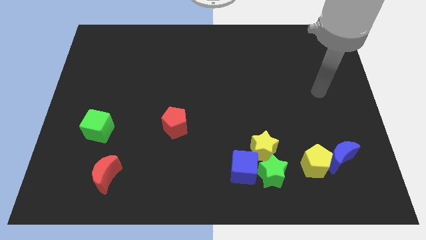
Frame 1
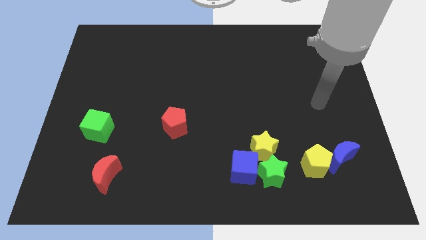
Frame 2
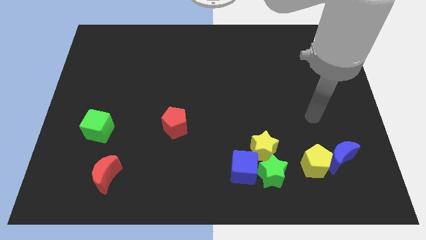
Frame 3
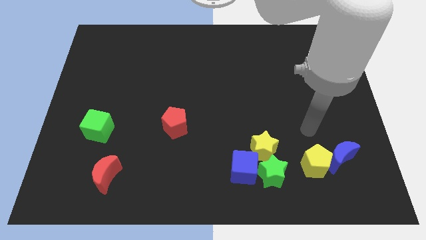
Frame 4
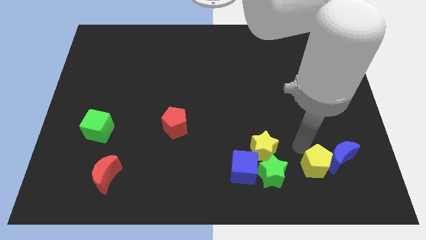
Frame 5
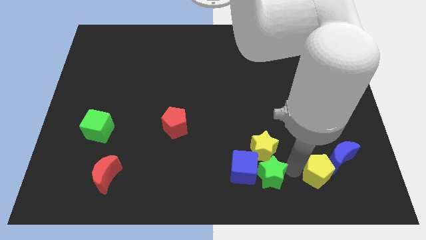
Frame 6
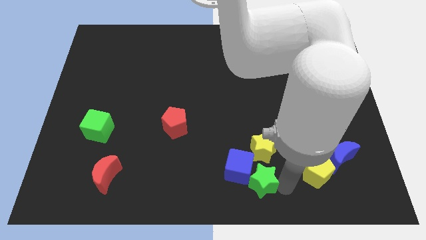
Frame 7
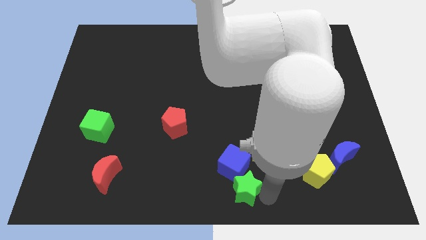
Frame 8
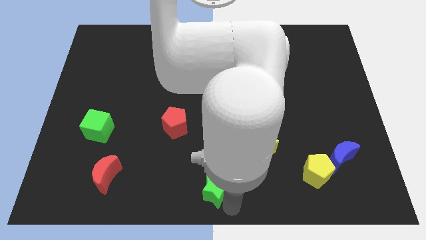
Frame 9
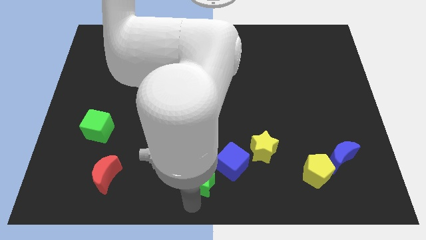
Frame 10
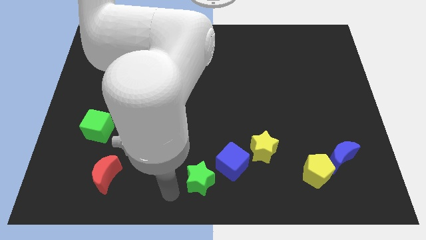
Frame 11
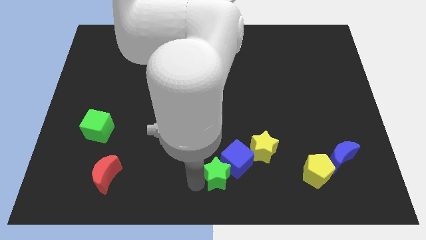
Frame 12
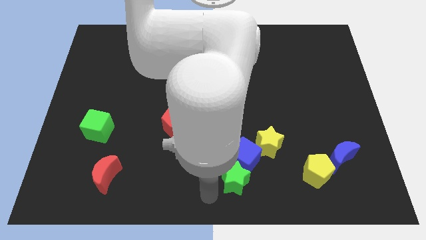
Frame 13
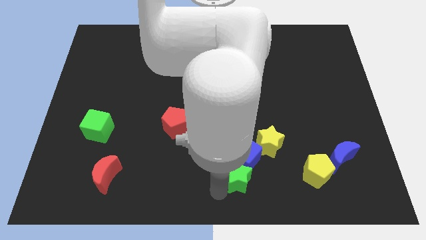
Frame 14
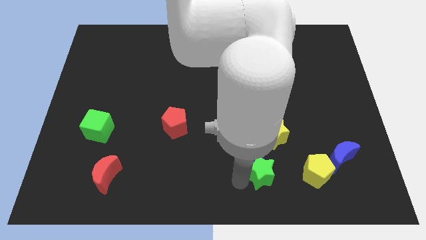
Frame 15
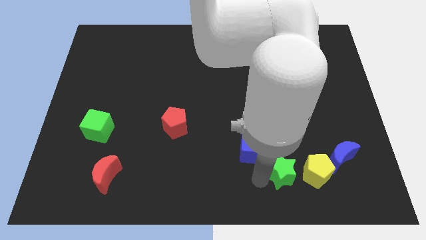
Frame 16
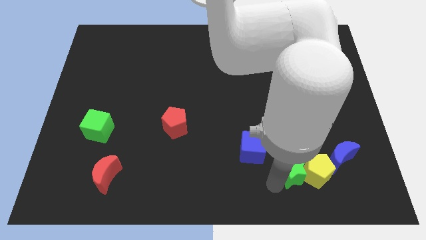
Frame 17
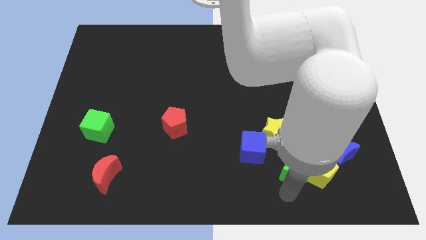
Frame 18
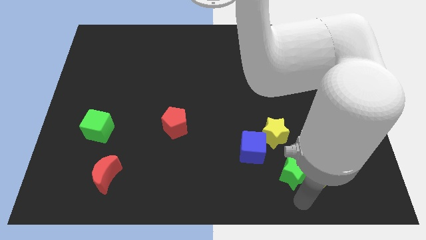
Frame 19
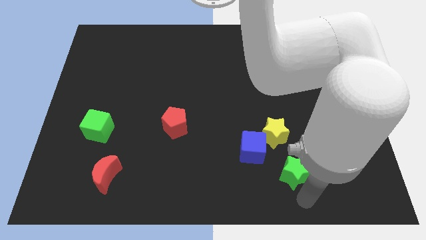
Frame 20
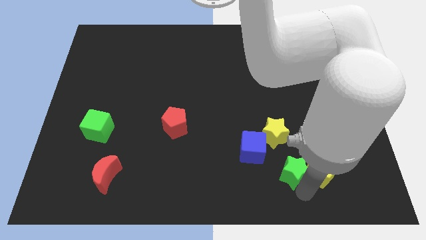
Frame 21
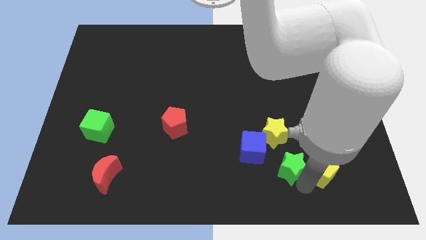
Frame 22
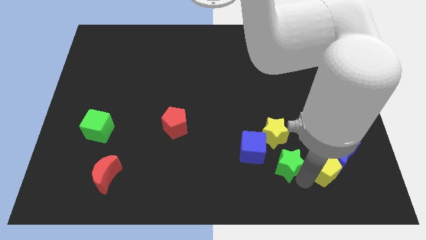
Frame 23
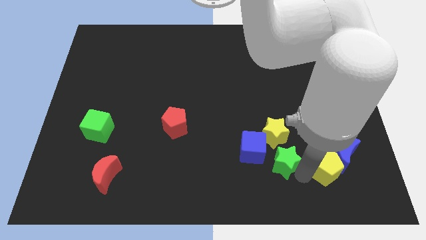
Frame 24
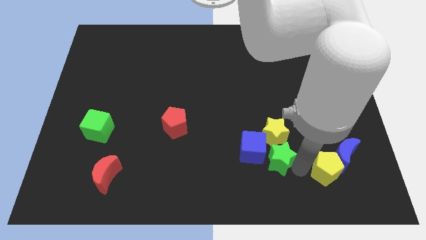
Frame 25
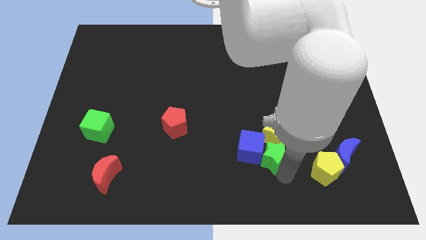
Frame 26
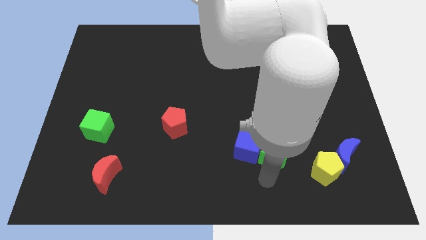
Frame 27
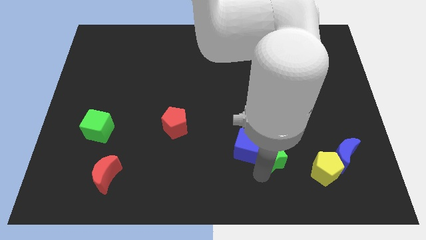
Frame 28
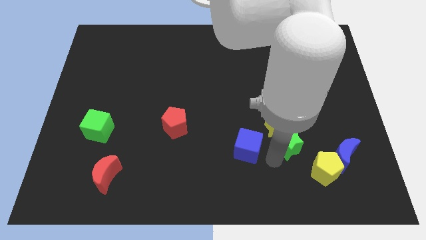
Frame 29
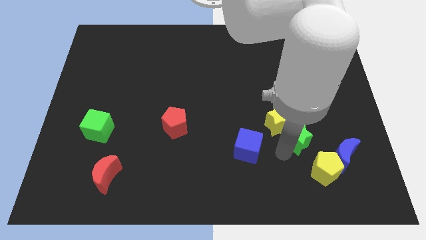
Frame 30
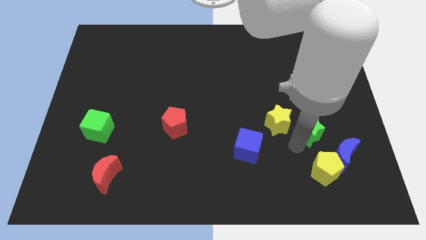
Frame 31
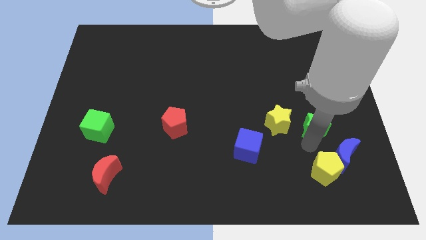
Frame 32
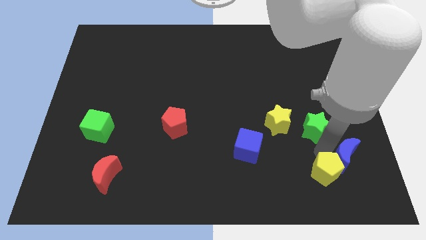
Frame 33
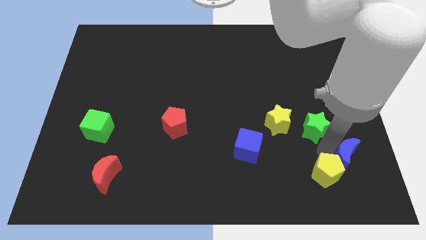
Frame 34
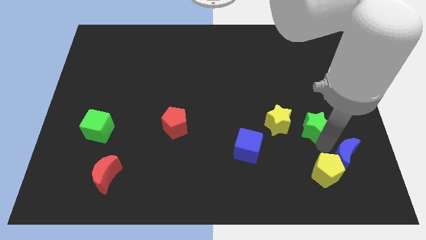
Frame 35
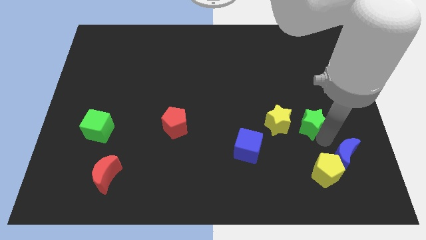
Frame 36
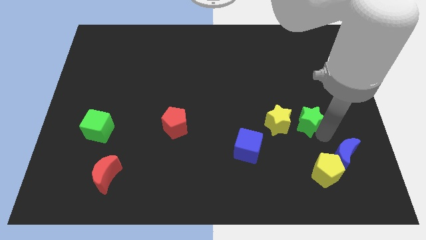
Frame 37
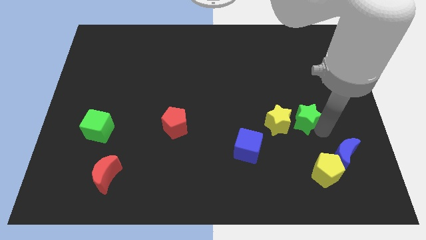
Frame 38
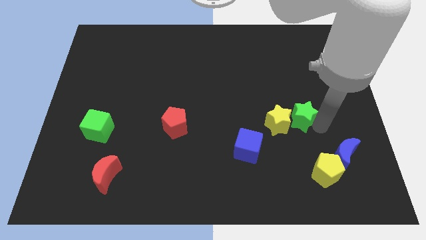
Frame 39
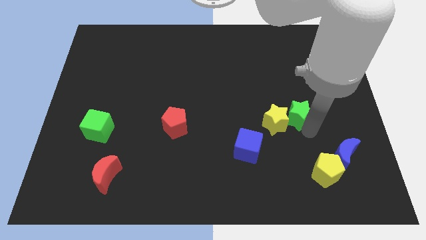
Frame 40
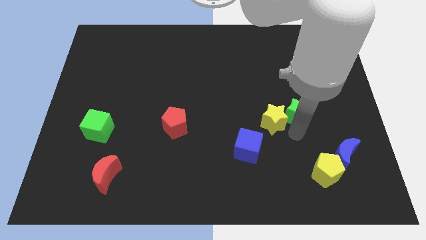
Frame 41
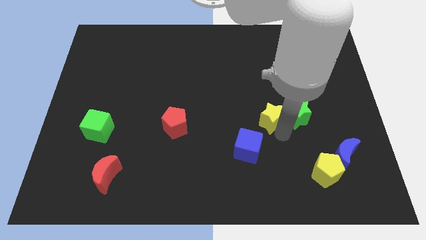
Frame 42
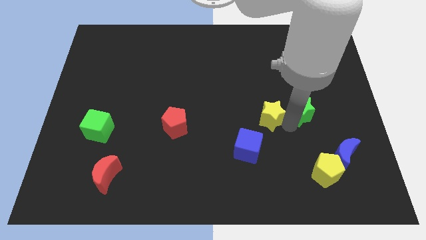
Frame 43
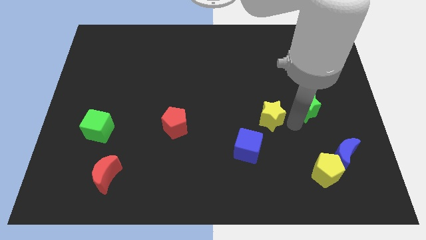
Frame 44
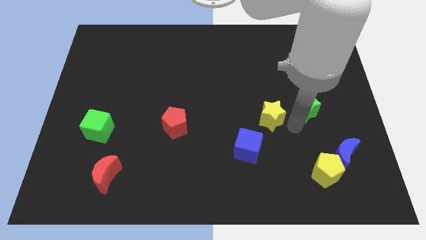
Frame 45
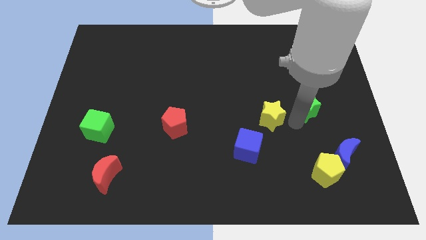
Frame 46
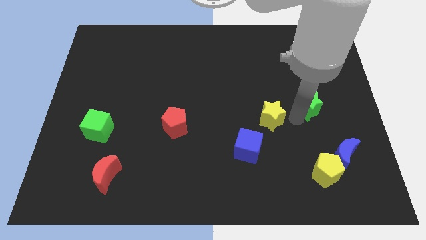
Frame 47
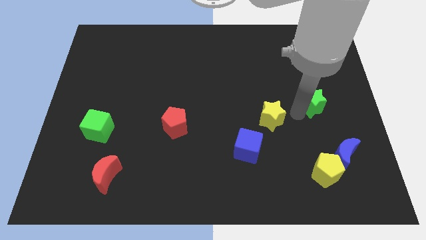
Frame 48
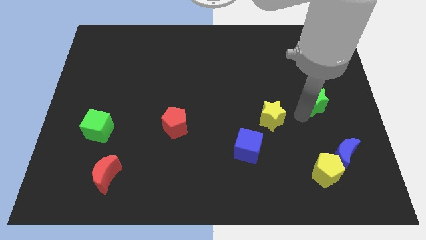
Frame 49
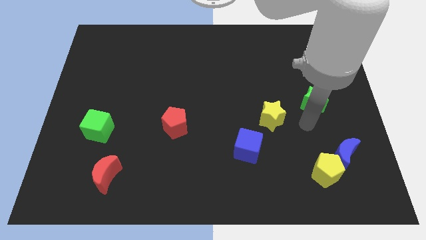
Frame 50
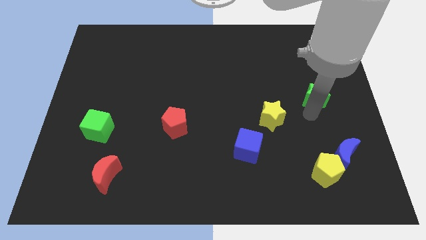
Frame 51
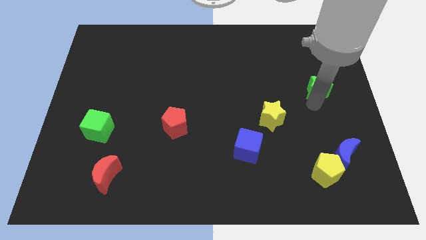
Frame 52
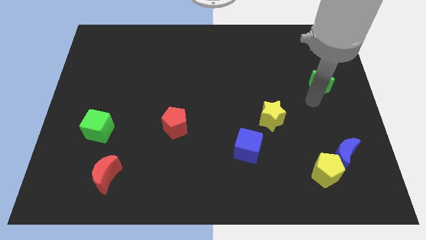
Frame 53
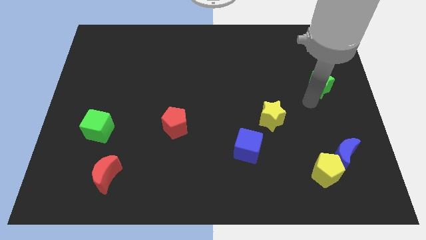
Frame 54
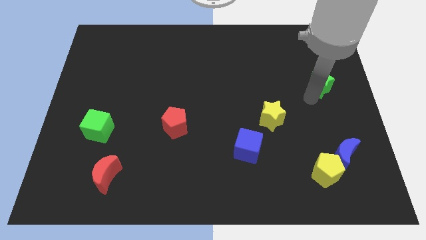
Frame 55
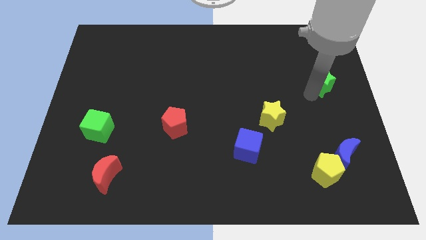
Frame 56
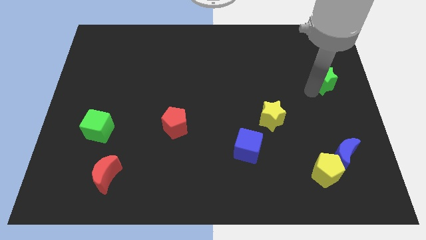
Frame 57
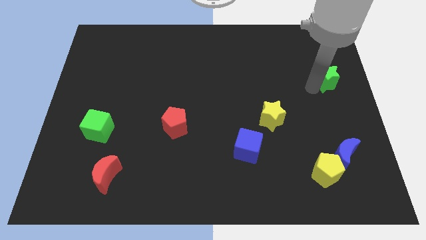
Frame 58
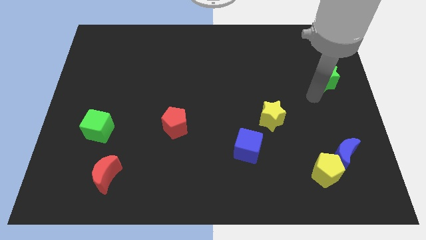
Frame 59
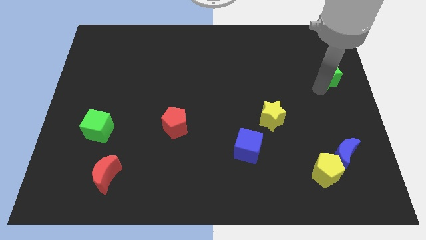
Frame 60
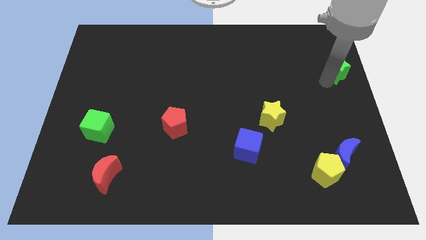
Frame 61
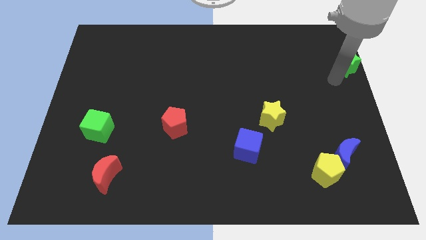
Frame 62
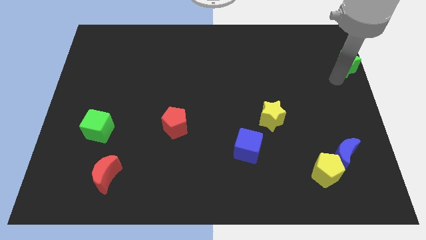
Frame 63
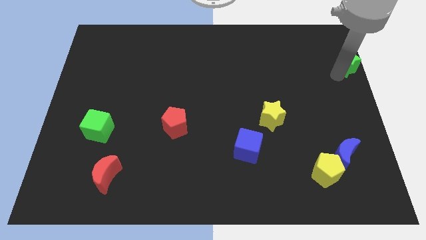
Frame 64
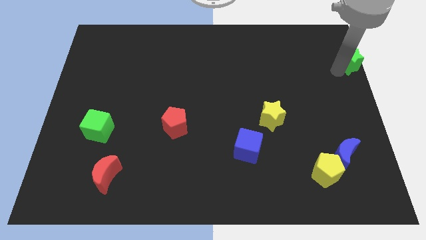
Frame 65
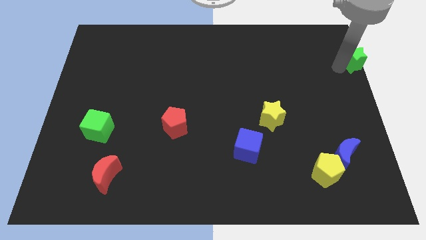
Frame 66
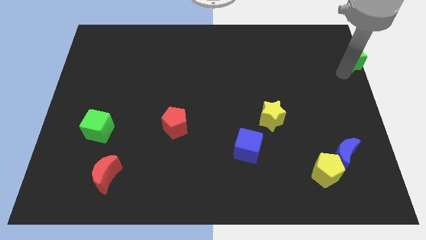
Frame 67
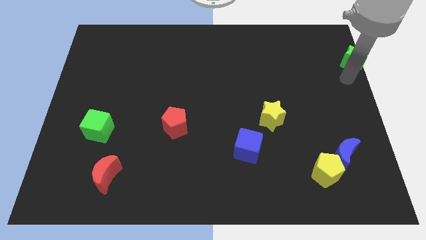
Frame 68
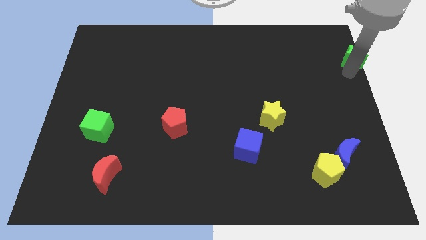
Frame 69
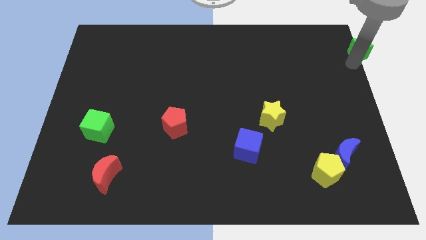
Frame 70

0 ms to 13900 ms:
put the green star to the top right

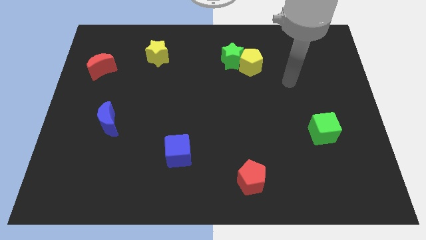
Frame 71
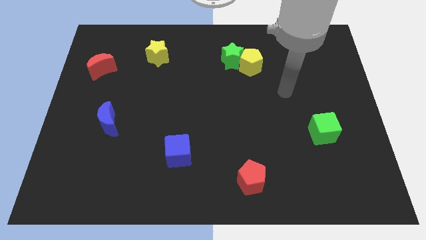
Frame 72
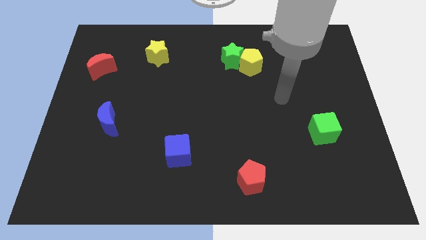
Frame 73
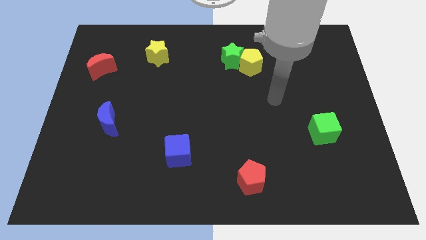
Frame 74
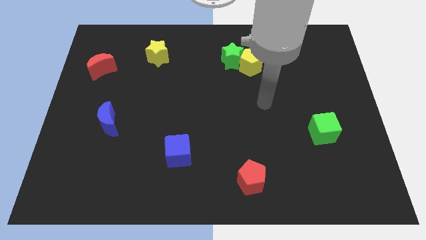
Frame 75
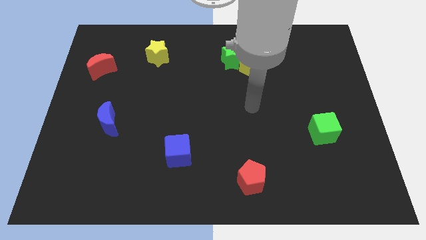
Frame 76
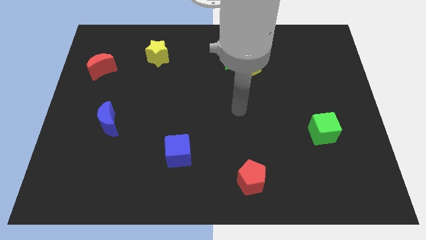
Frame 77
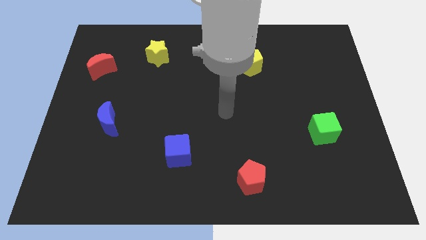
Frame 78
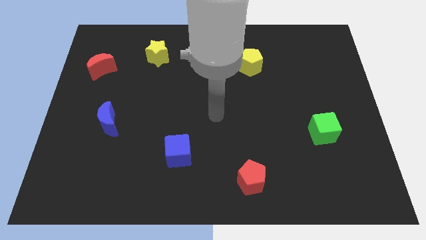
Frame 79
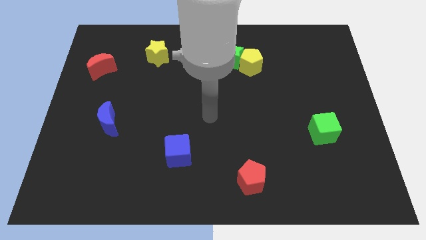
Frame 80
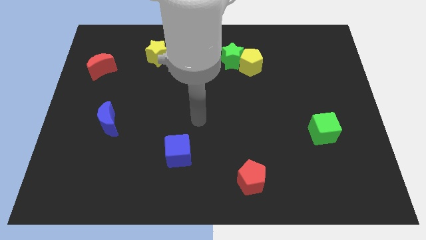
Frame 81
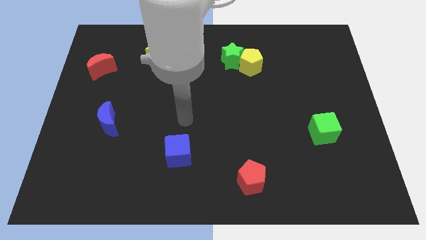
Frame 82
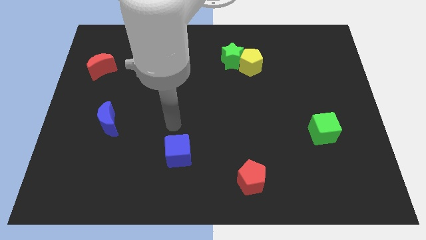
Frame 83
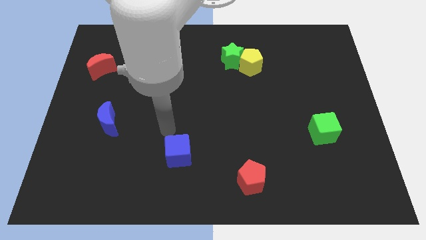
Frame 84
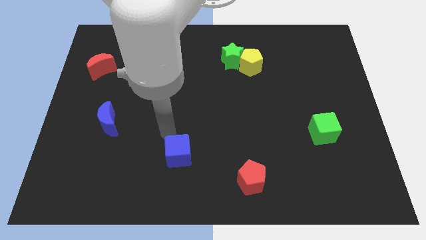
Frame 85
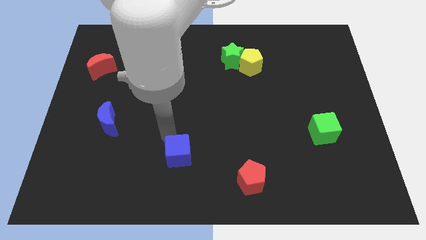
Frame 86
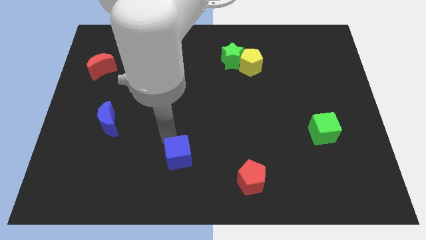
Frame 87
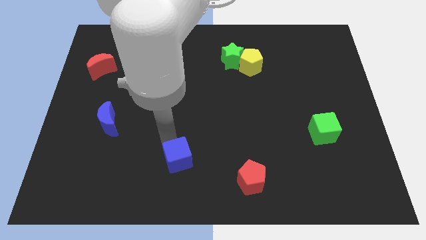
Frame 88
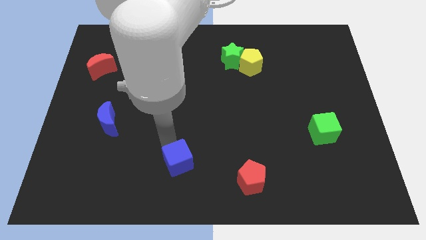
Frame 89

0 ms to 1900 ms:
slide the blue cube to the bottom
